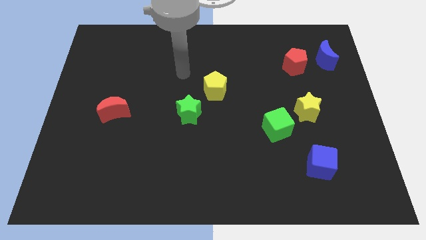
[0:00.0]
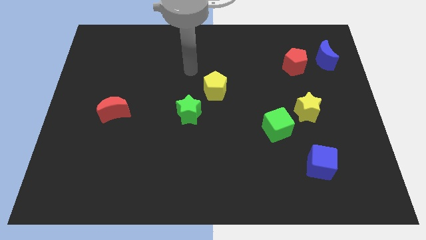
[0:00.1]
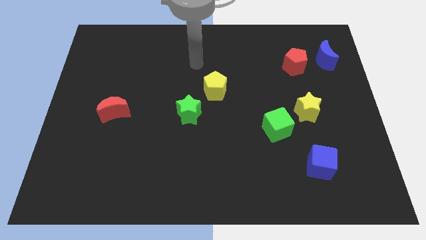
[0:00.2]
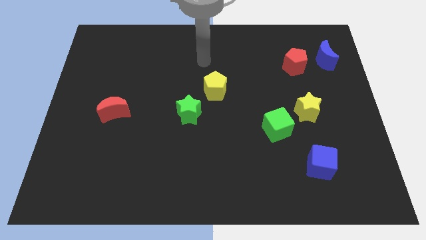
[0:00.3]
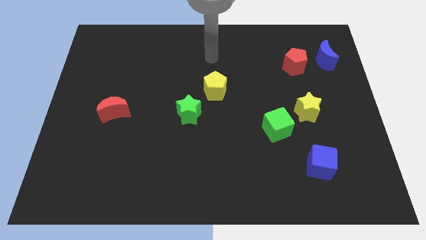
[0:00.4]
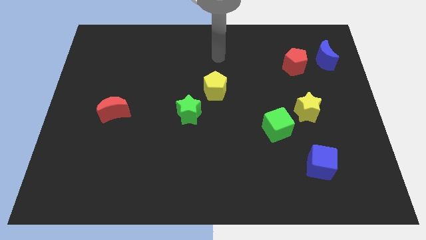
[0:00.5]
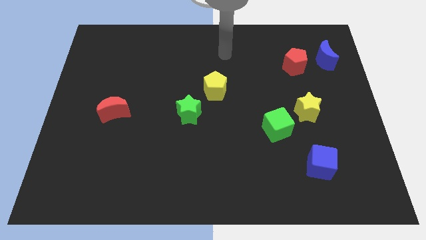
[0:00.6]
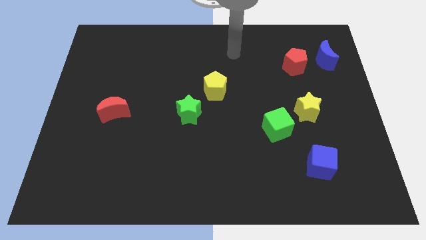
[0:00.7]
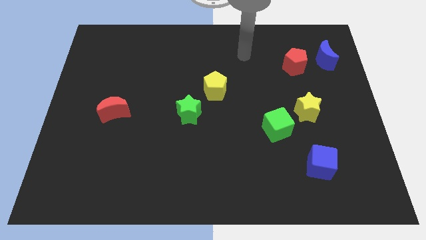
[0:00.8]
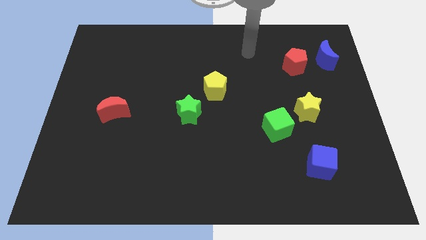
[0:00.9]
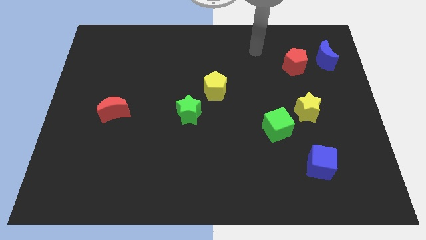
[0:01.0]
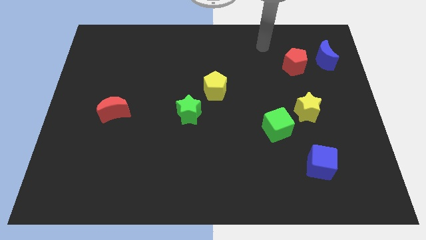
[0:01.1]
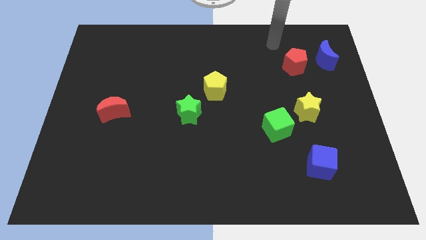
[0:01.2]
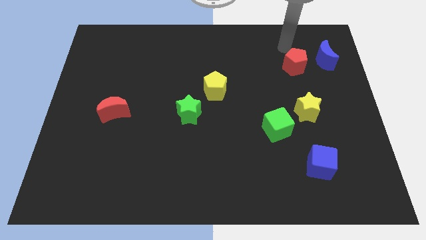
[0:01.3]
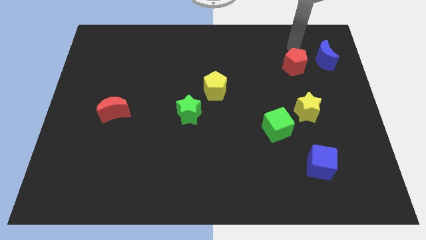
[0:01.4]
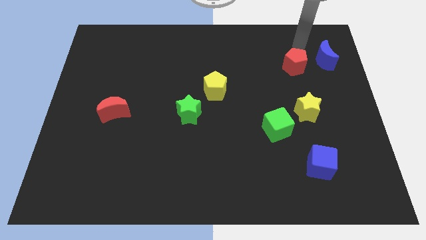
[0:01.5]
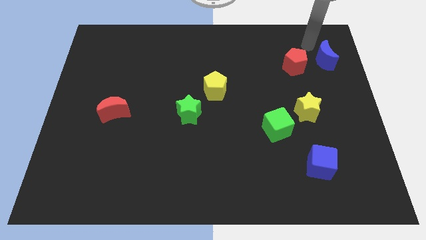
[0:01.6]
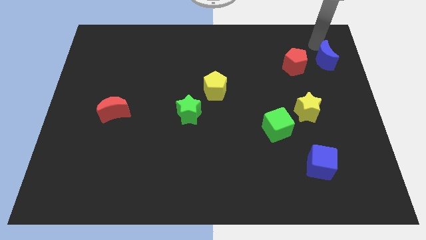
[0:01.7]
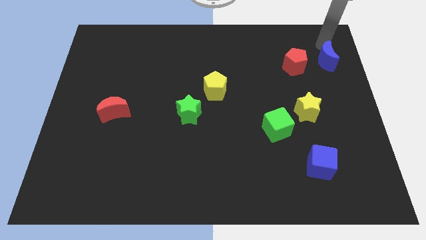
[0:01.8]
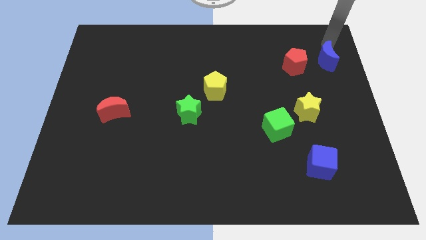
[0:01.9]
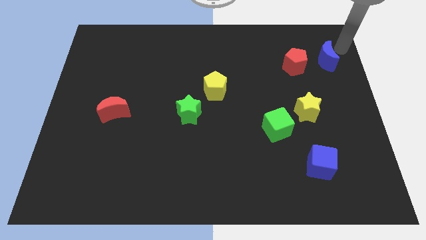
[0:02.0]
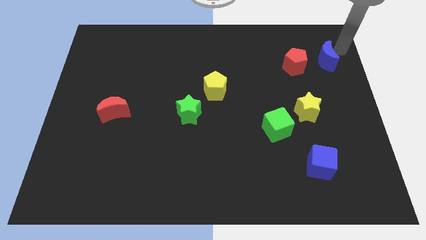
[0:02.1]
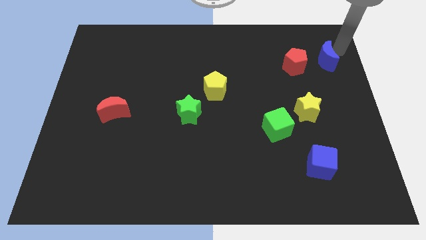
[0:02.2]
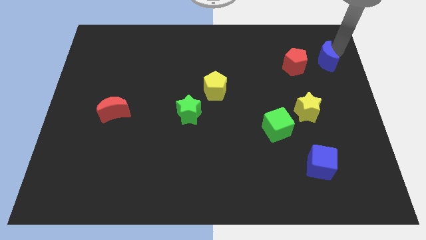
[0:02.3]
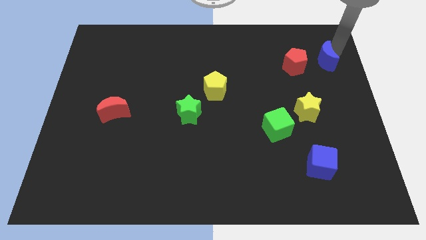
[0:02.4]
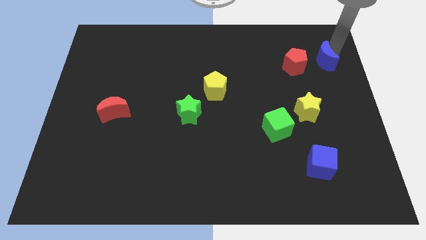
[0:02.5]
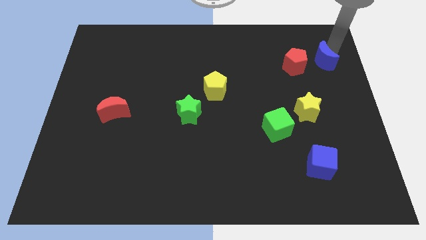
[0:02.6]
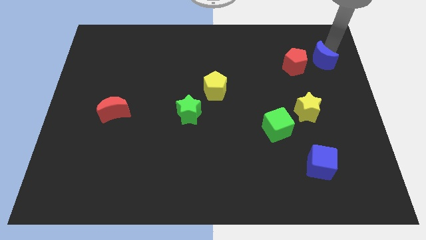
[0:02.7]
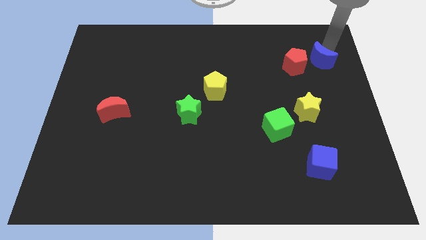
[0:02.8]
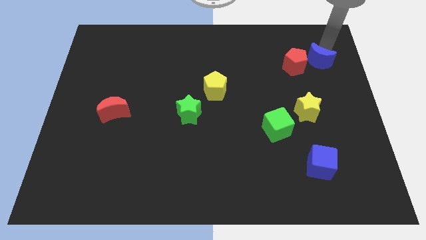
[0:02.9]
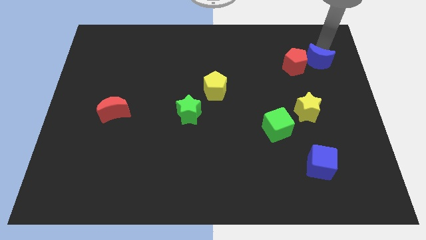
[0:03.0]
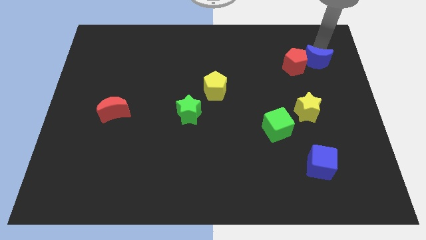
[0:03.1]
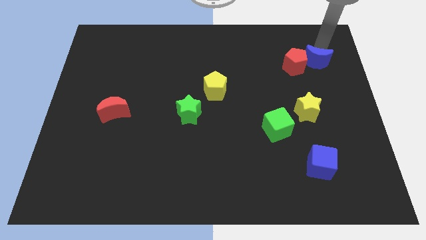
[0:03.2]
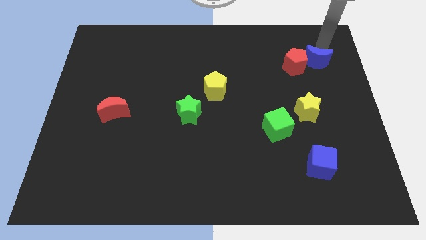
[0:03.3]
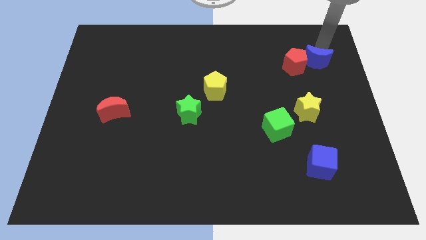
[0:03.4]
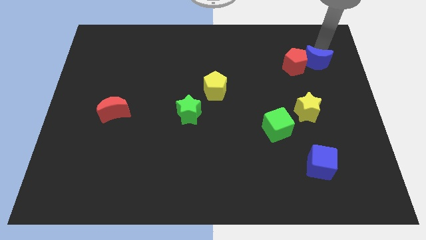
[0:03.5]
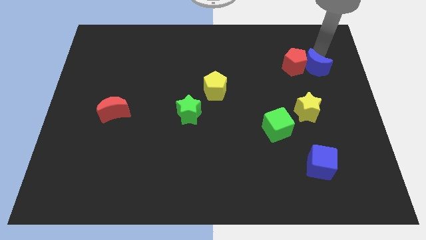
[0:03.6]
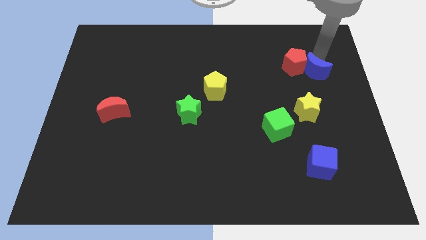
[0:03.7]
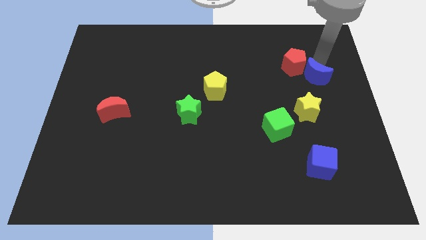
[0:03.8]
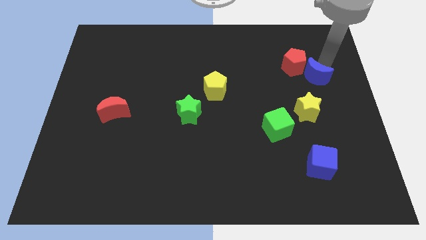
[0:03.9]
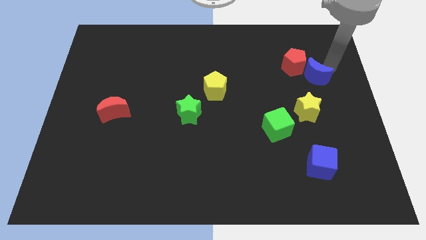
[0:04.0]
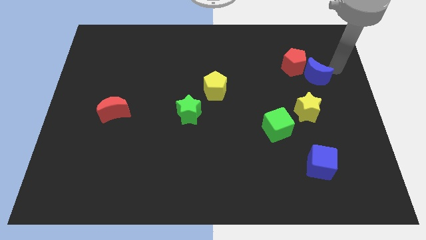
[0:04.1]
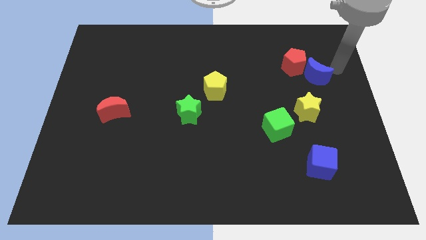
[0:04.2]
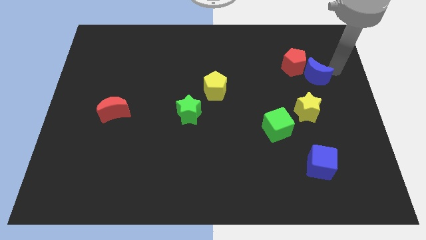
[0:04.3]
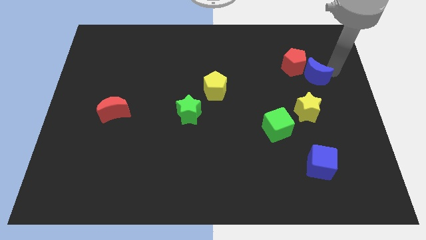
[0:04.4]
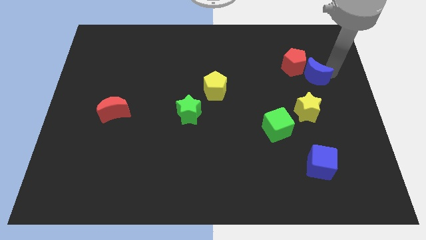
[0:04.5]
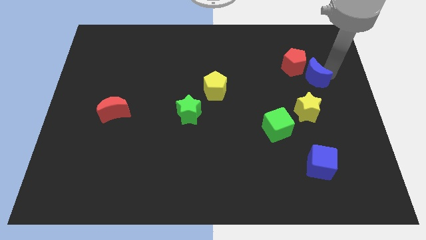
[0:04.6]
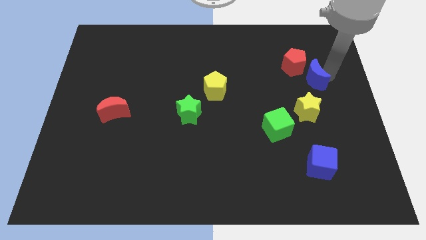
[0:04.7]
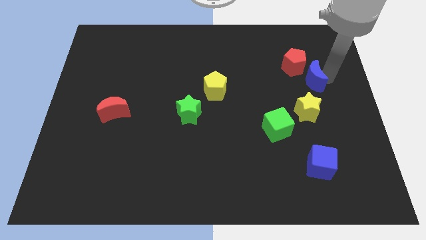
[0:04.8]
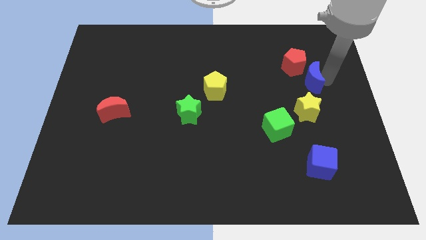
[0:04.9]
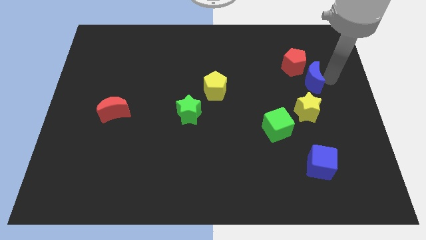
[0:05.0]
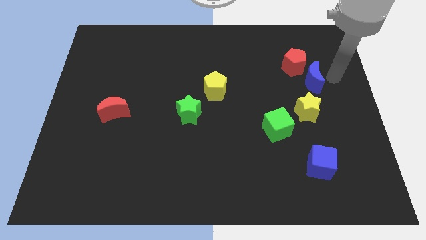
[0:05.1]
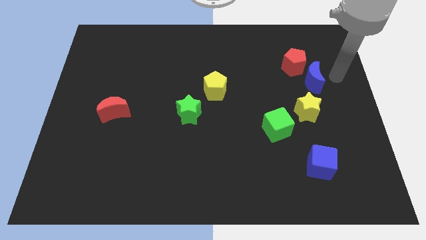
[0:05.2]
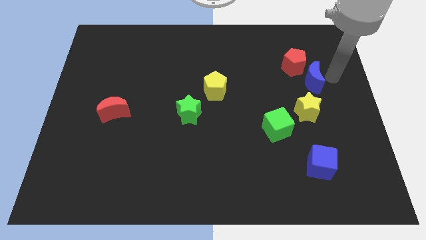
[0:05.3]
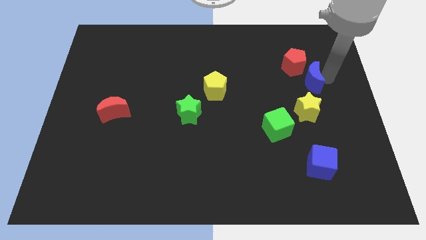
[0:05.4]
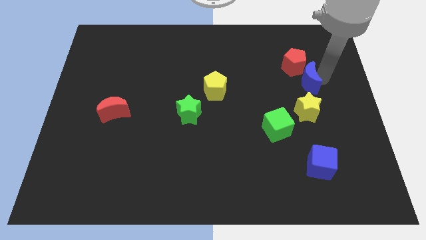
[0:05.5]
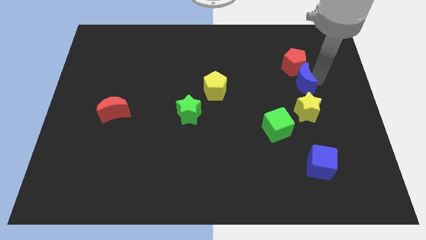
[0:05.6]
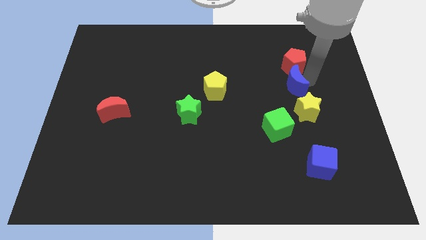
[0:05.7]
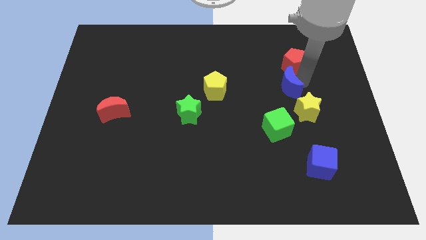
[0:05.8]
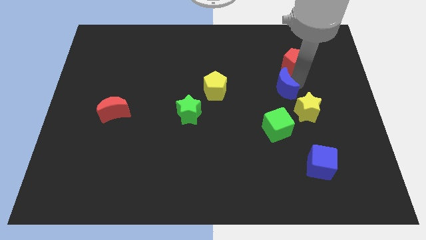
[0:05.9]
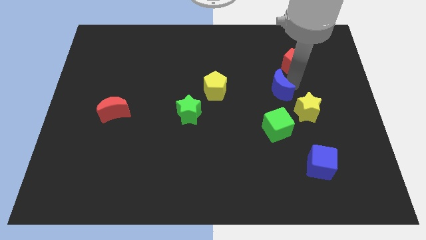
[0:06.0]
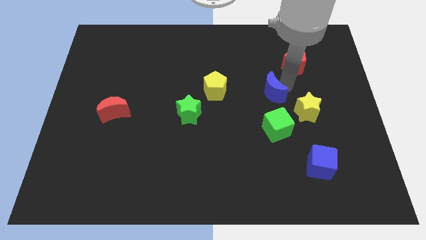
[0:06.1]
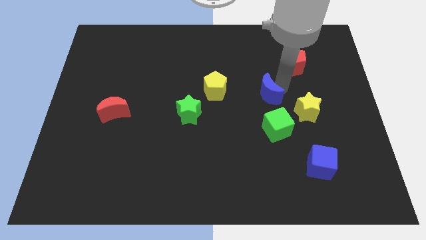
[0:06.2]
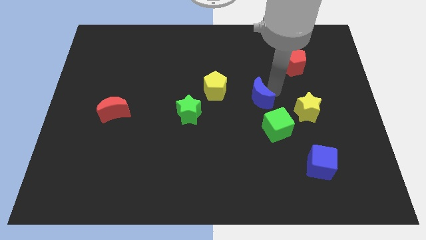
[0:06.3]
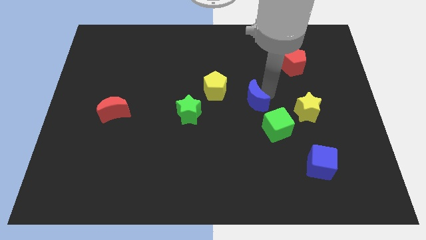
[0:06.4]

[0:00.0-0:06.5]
push the blue moon to the bottom right side of the yellow pentagon
